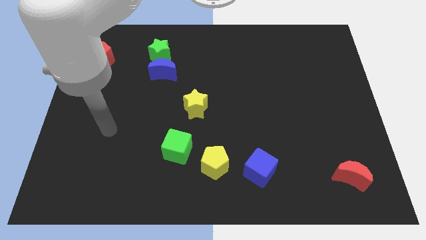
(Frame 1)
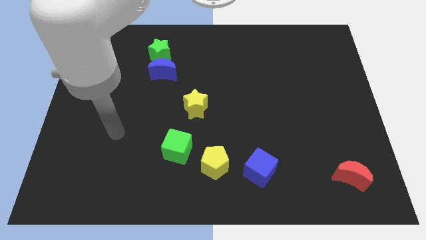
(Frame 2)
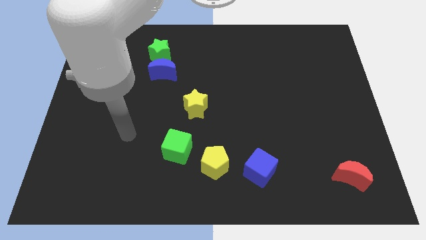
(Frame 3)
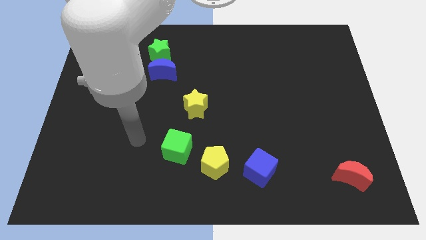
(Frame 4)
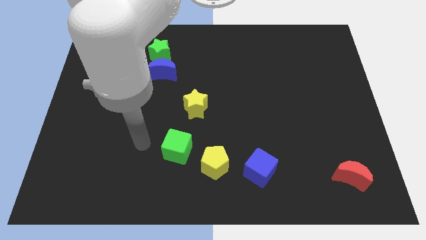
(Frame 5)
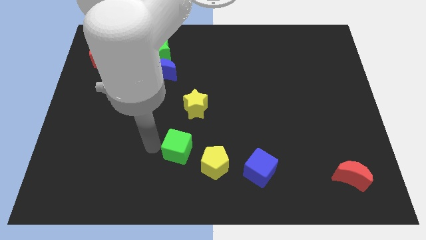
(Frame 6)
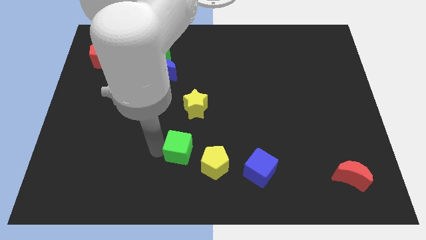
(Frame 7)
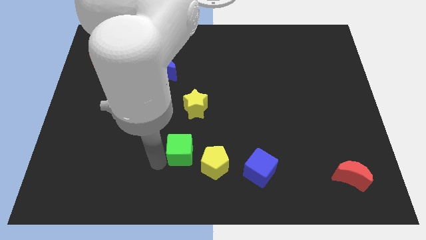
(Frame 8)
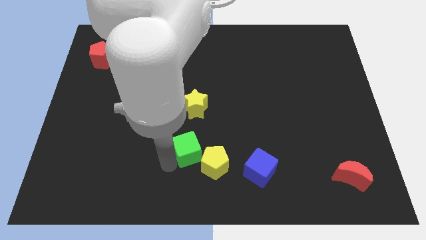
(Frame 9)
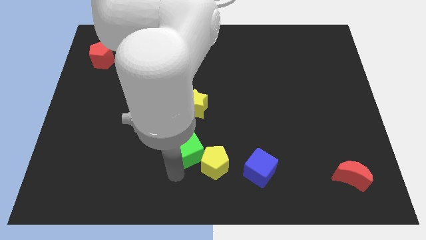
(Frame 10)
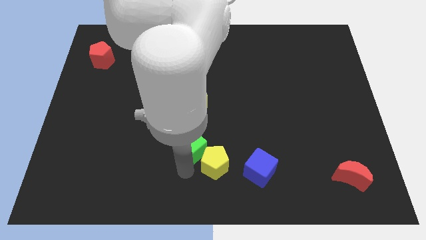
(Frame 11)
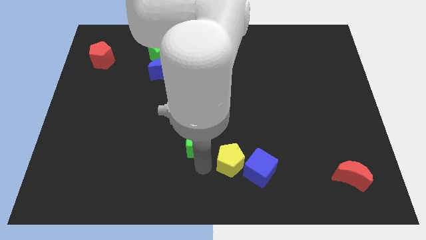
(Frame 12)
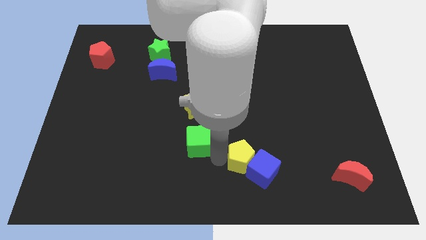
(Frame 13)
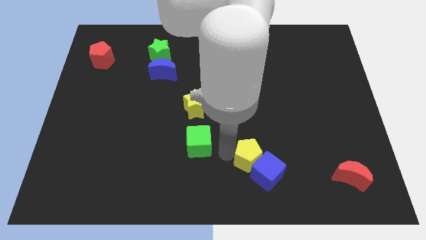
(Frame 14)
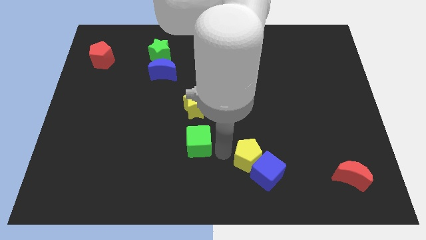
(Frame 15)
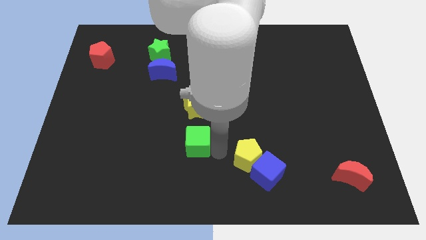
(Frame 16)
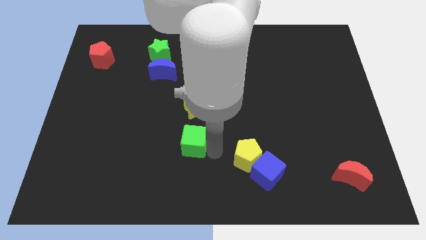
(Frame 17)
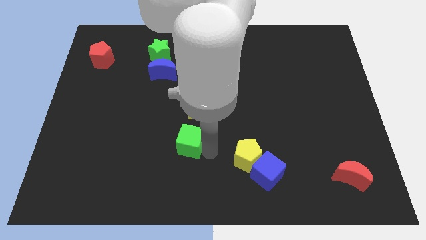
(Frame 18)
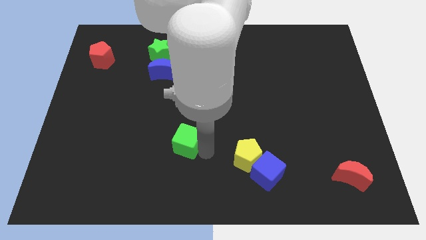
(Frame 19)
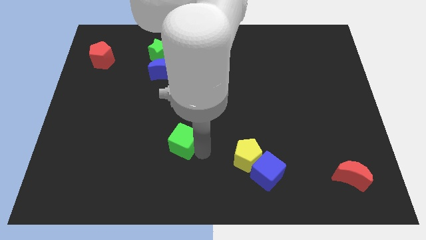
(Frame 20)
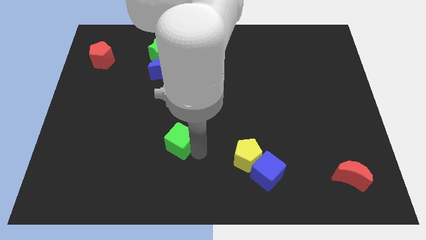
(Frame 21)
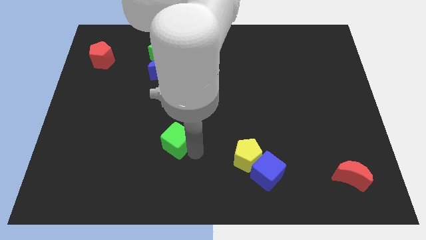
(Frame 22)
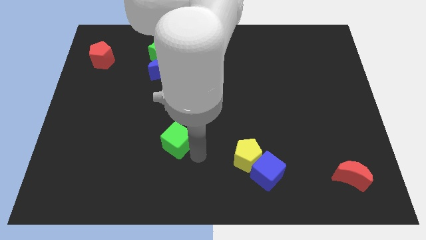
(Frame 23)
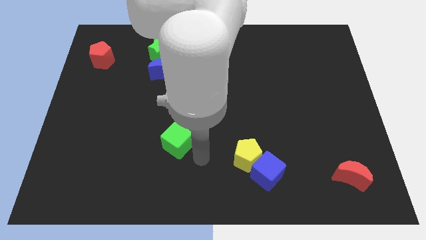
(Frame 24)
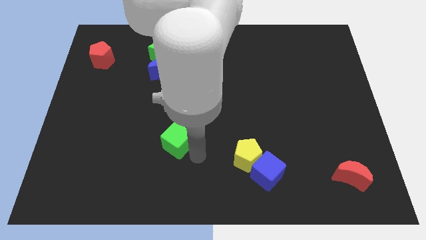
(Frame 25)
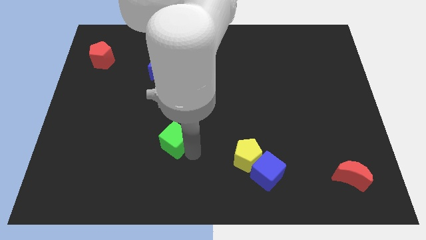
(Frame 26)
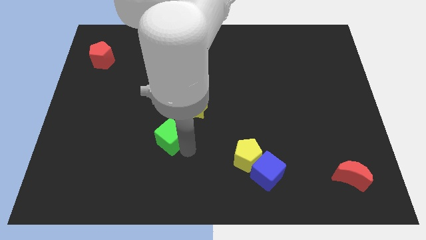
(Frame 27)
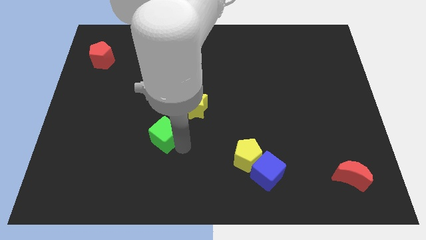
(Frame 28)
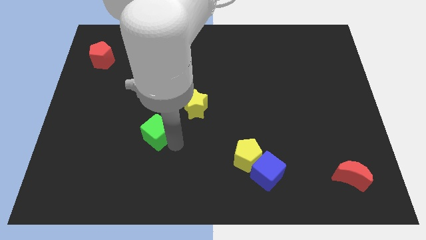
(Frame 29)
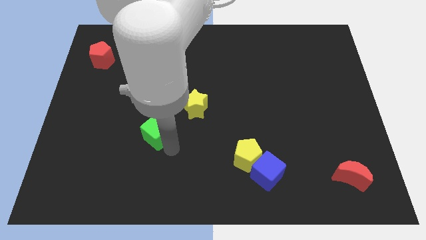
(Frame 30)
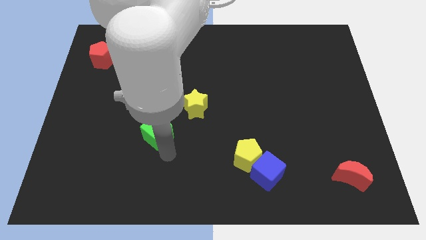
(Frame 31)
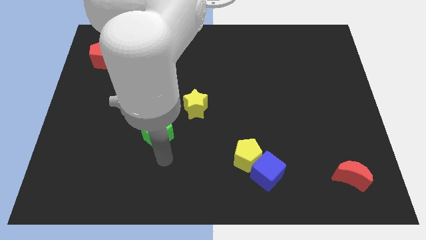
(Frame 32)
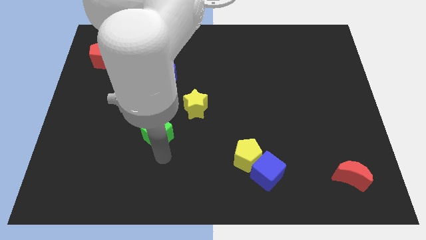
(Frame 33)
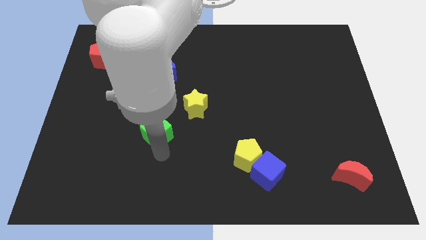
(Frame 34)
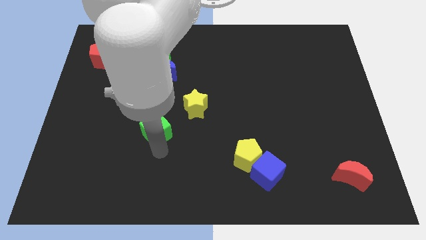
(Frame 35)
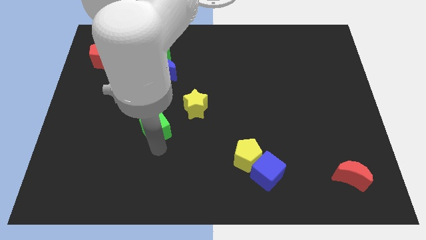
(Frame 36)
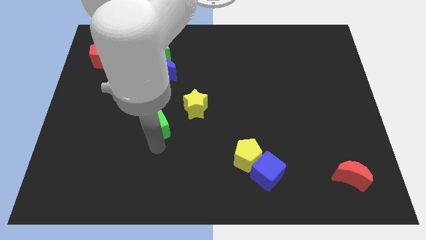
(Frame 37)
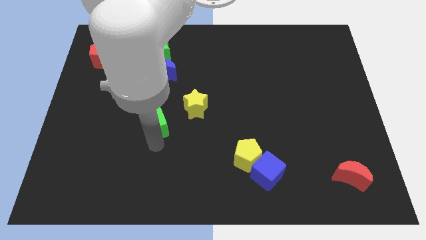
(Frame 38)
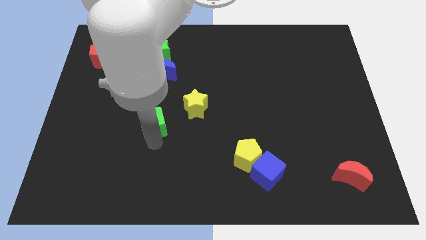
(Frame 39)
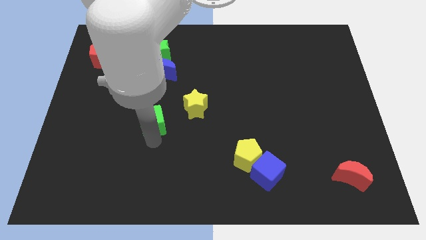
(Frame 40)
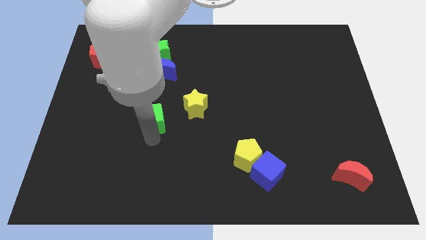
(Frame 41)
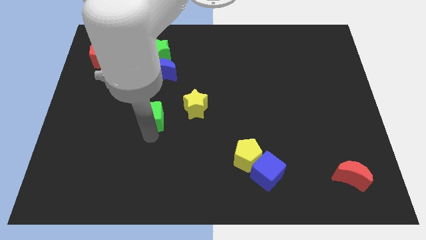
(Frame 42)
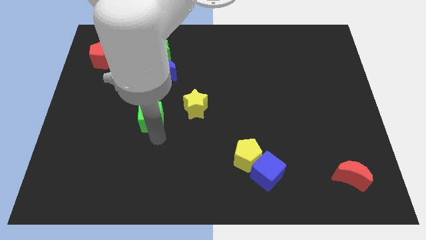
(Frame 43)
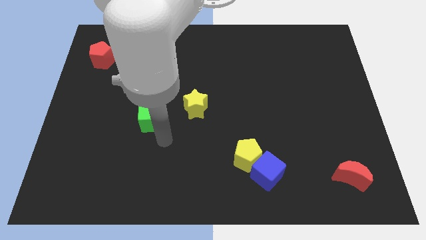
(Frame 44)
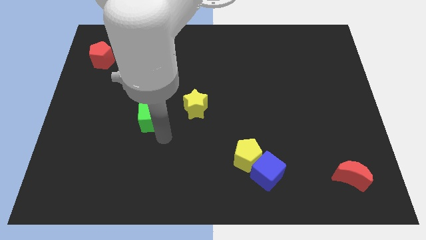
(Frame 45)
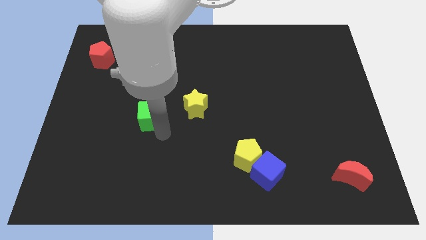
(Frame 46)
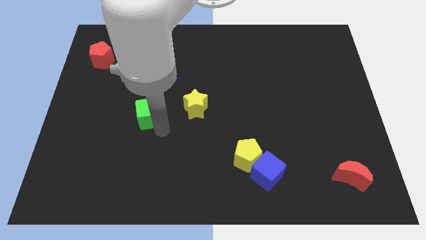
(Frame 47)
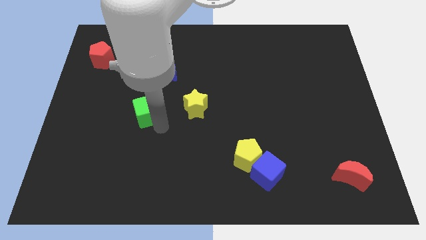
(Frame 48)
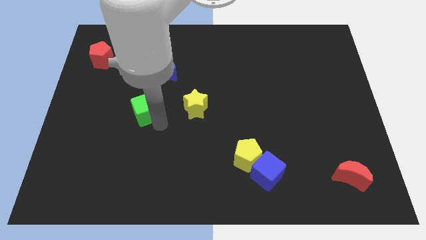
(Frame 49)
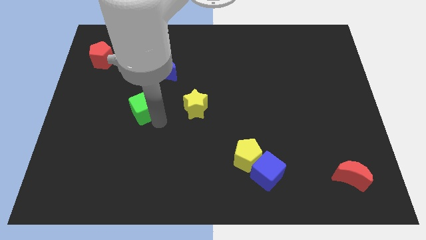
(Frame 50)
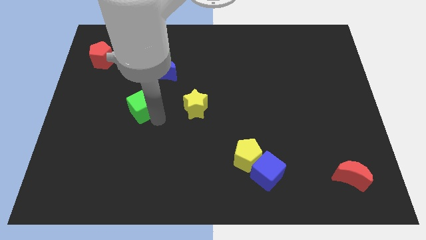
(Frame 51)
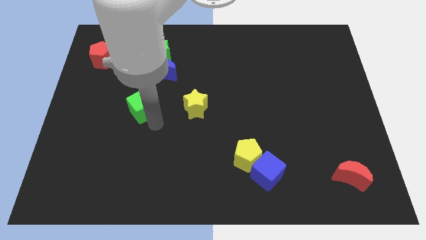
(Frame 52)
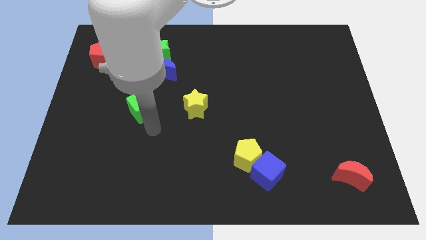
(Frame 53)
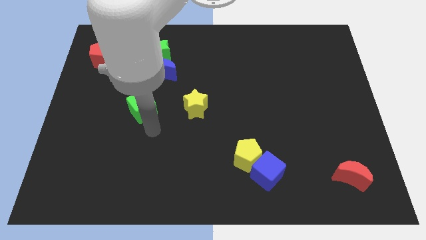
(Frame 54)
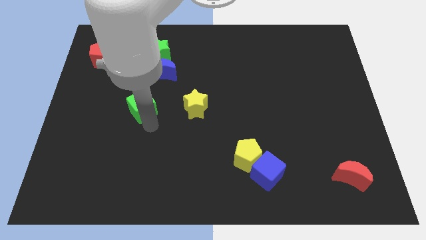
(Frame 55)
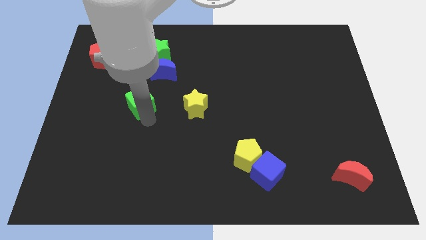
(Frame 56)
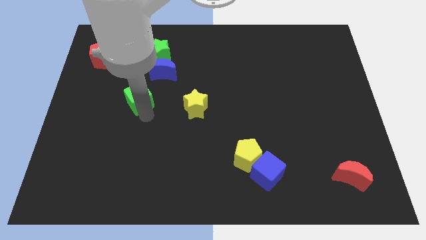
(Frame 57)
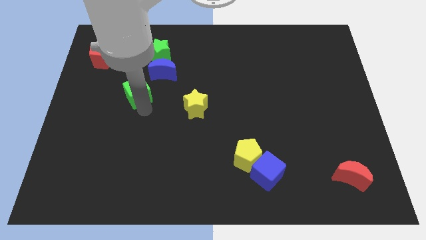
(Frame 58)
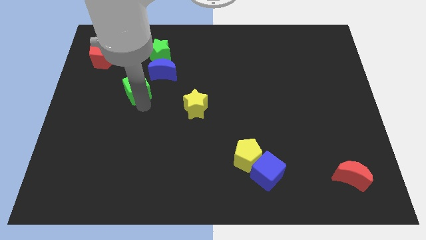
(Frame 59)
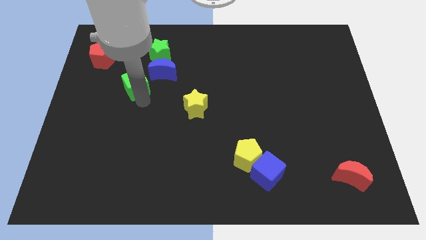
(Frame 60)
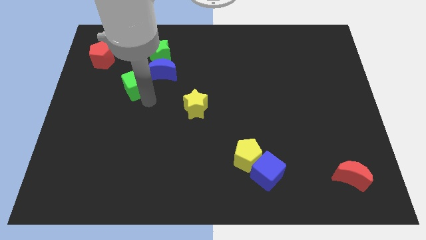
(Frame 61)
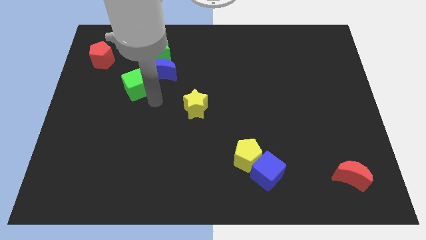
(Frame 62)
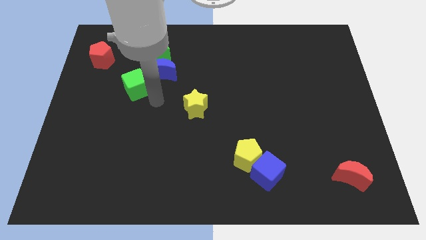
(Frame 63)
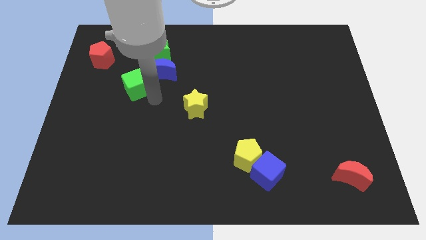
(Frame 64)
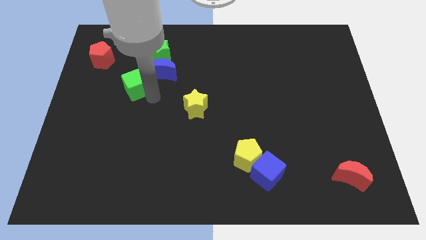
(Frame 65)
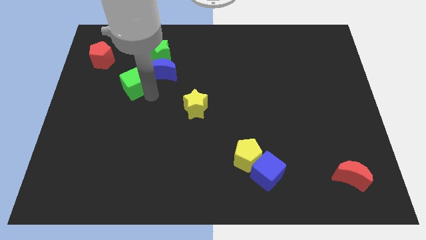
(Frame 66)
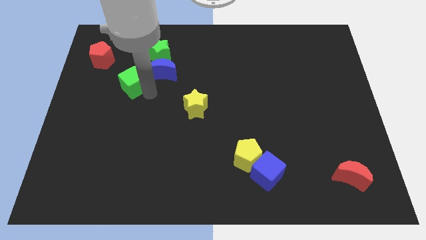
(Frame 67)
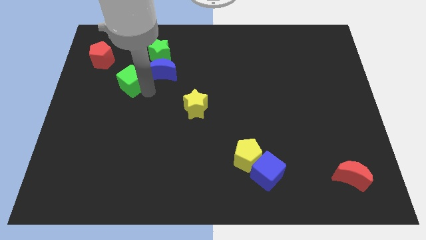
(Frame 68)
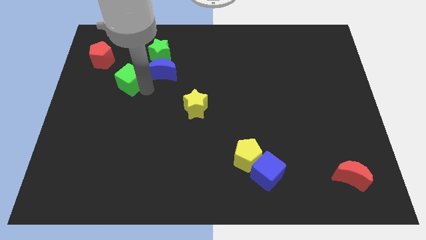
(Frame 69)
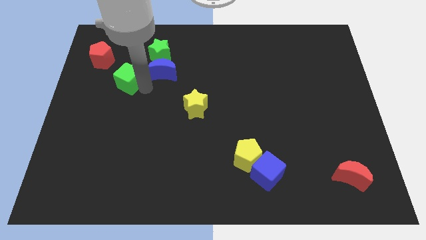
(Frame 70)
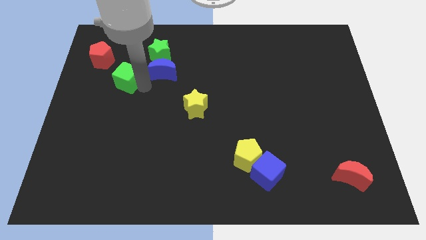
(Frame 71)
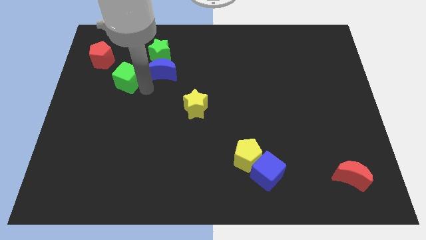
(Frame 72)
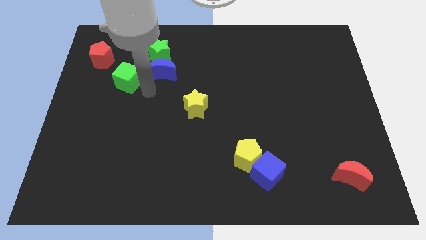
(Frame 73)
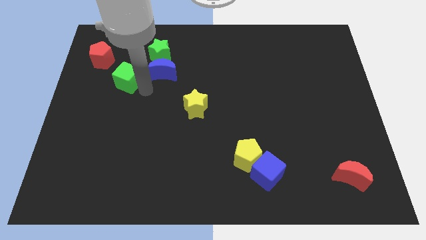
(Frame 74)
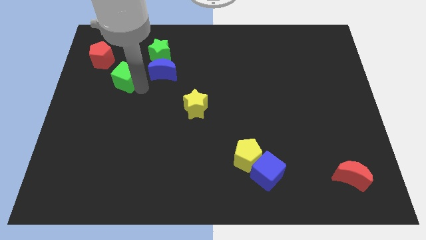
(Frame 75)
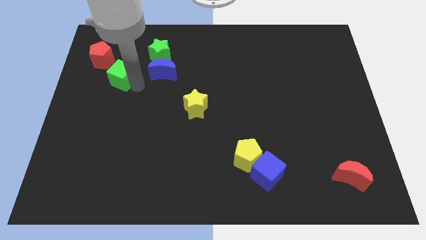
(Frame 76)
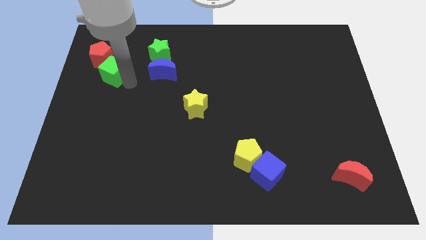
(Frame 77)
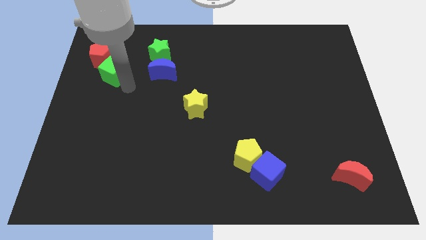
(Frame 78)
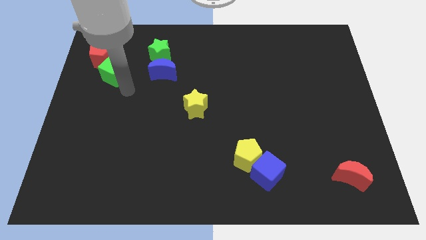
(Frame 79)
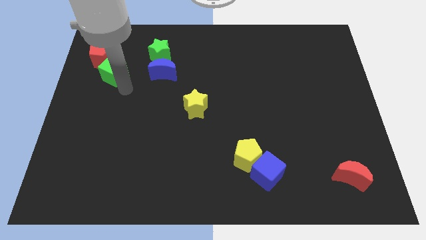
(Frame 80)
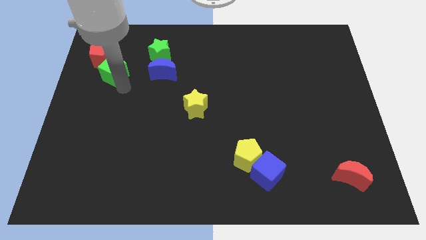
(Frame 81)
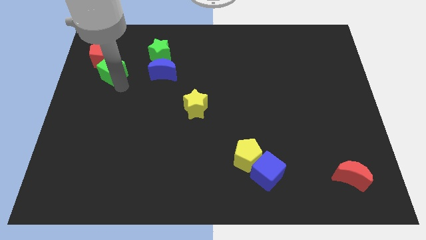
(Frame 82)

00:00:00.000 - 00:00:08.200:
move the green cube towards the red pentagon
